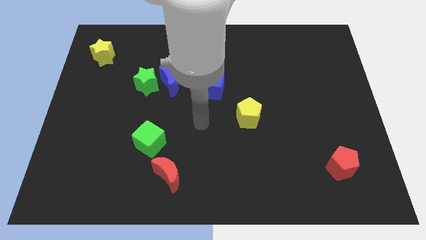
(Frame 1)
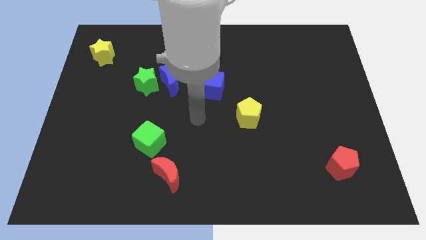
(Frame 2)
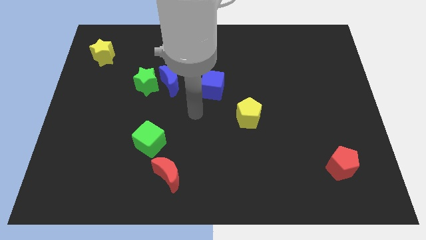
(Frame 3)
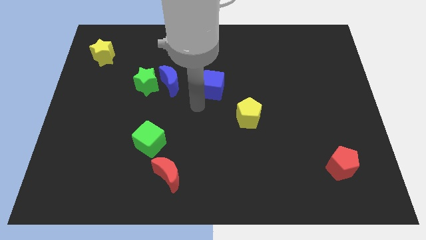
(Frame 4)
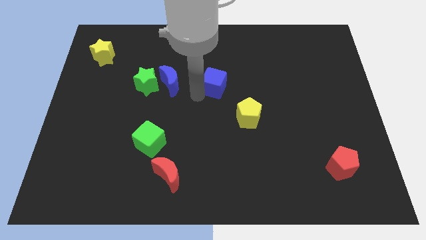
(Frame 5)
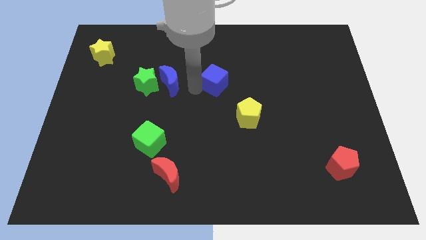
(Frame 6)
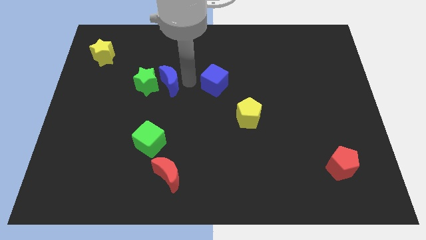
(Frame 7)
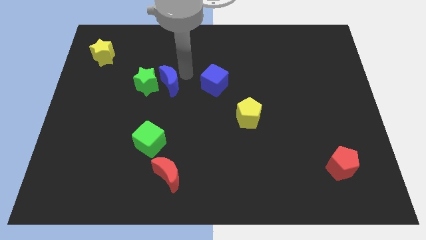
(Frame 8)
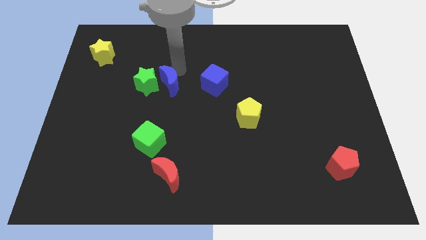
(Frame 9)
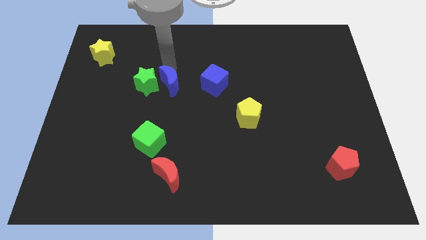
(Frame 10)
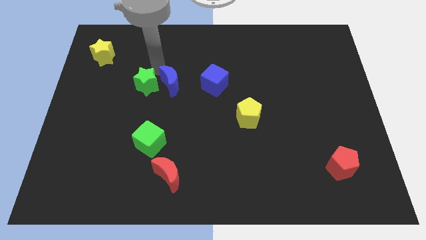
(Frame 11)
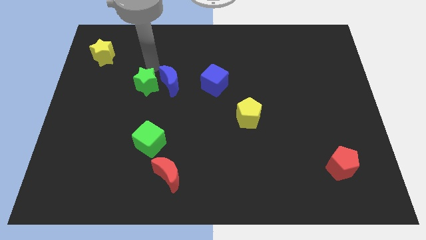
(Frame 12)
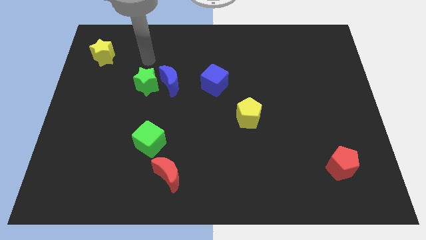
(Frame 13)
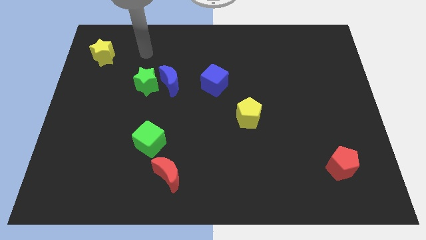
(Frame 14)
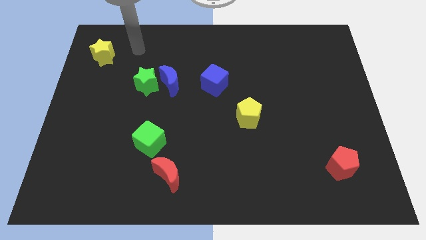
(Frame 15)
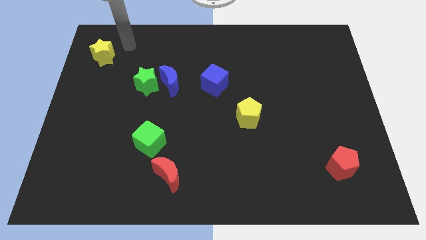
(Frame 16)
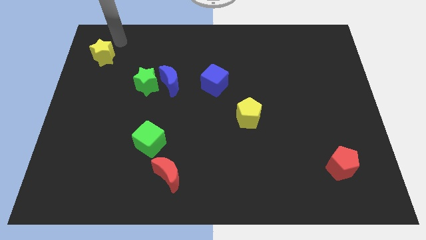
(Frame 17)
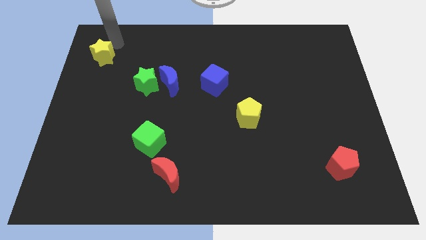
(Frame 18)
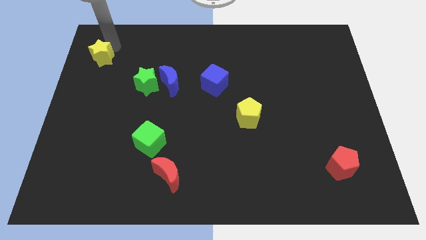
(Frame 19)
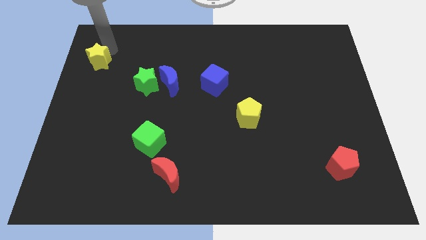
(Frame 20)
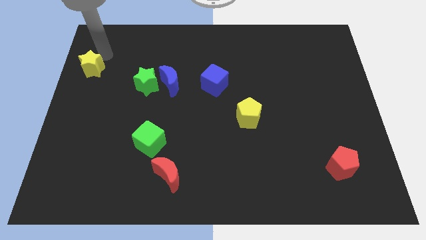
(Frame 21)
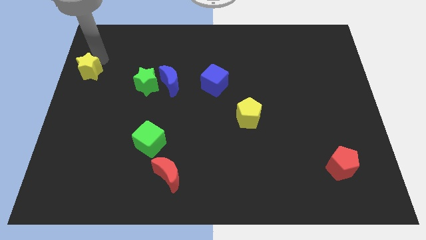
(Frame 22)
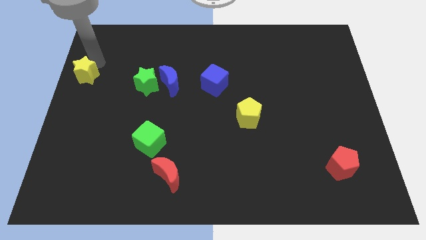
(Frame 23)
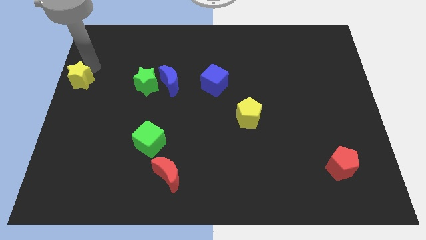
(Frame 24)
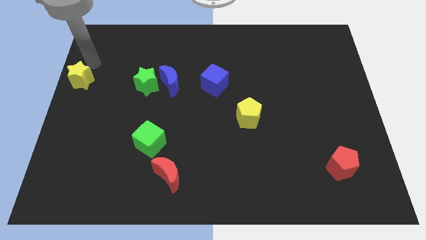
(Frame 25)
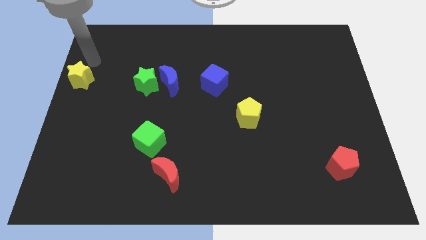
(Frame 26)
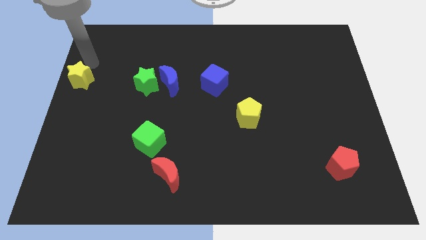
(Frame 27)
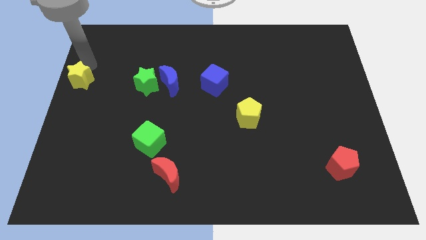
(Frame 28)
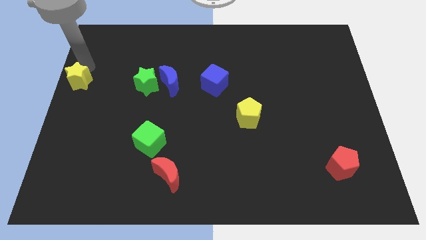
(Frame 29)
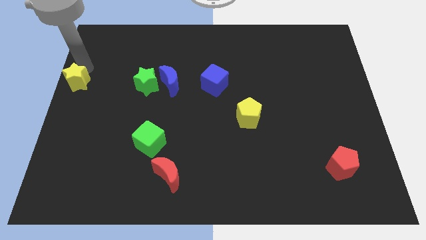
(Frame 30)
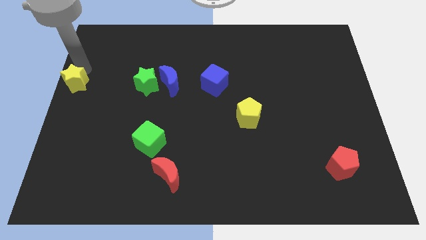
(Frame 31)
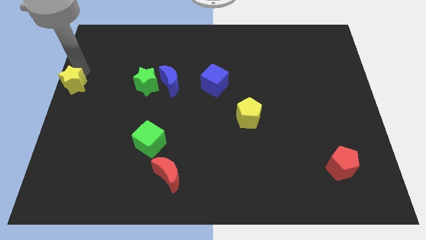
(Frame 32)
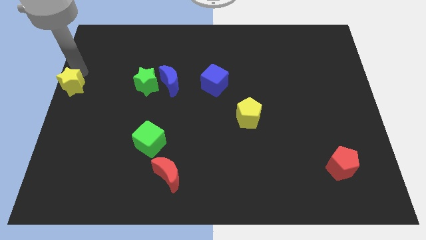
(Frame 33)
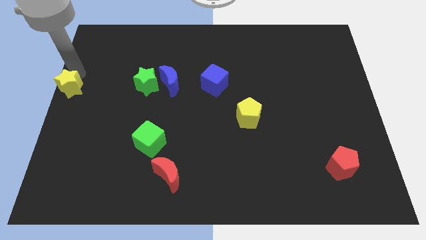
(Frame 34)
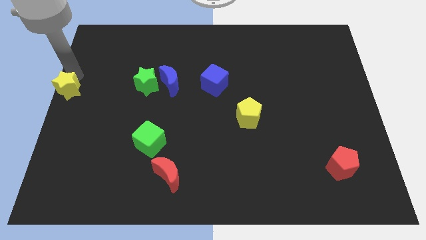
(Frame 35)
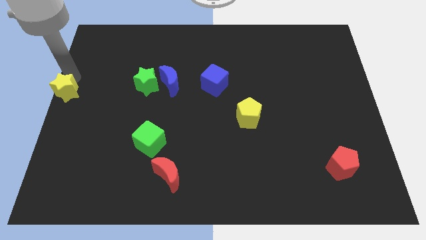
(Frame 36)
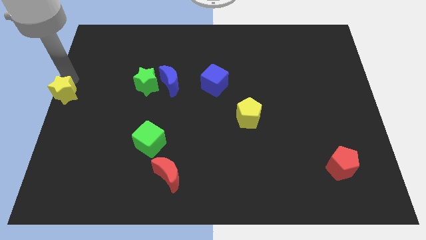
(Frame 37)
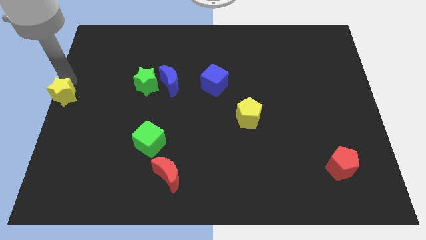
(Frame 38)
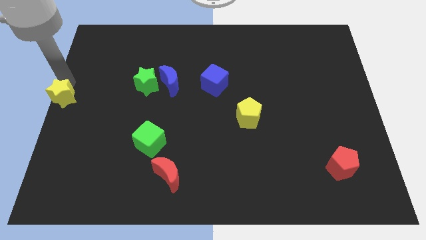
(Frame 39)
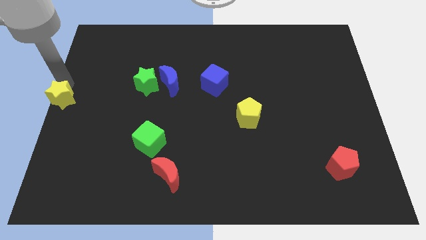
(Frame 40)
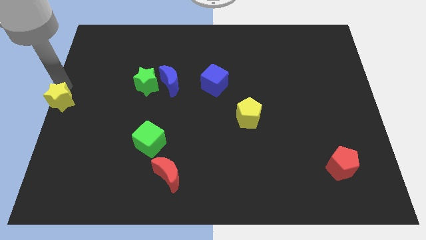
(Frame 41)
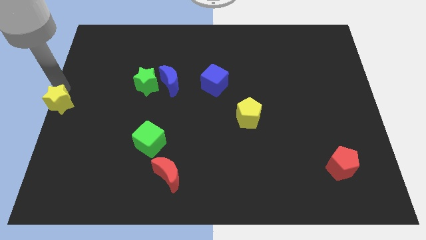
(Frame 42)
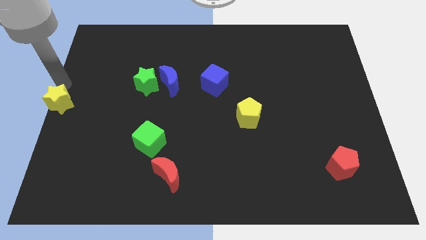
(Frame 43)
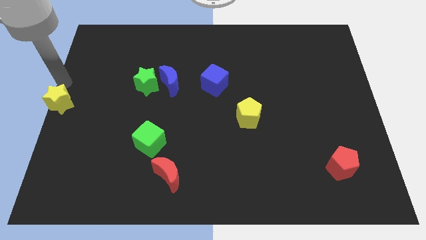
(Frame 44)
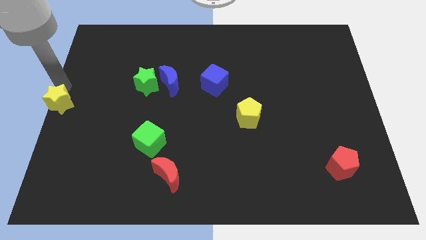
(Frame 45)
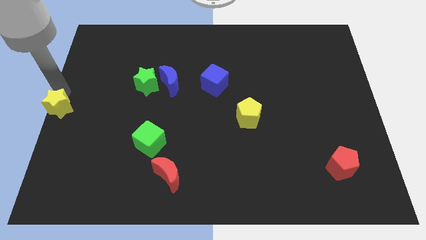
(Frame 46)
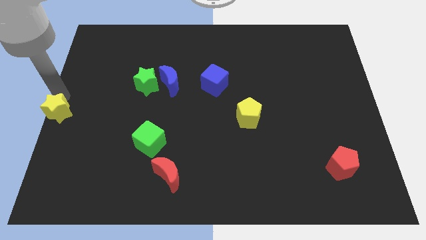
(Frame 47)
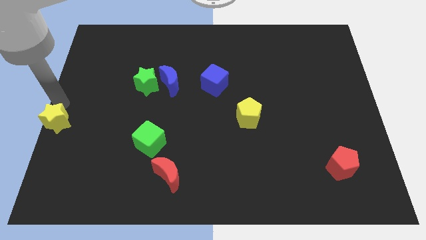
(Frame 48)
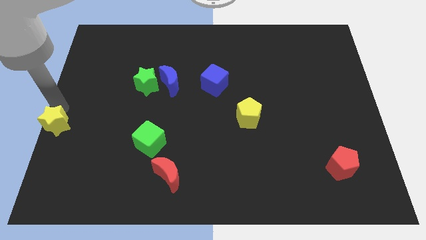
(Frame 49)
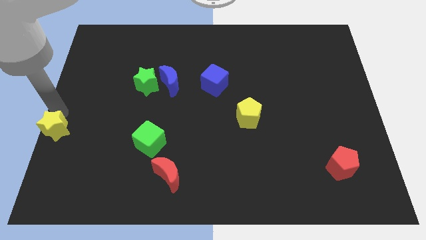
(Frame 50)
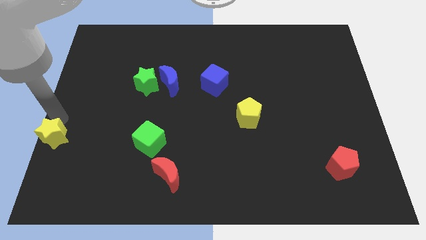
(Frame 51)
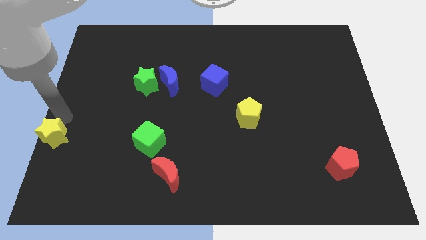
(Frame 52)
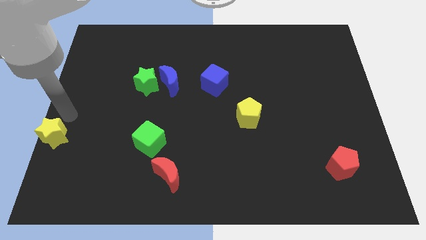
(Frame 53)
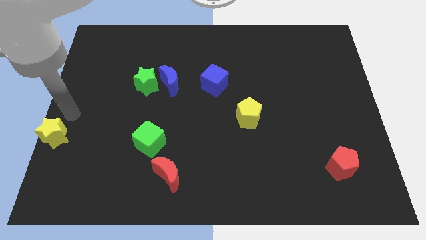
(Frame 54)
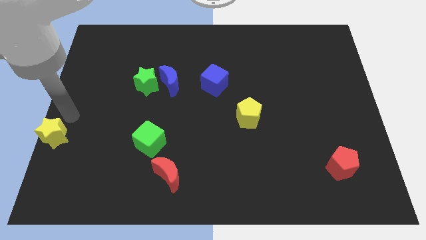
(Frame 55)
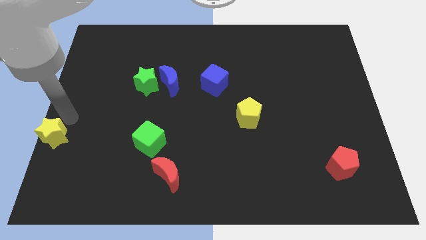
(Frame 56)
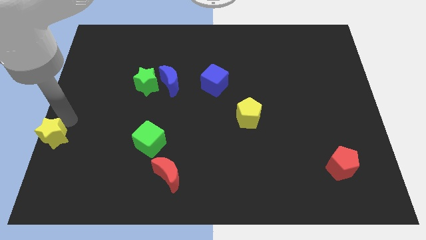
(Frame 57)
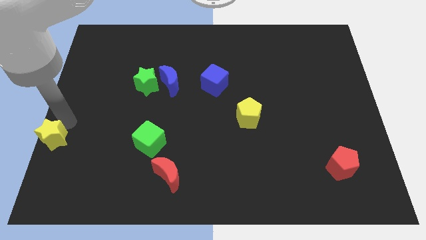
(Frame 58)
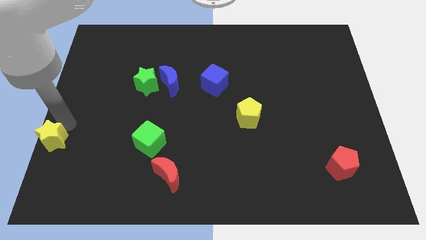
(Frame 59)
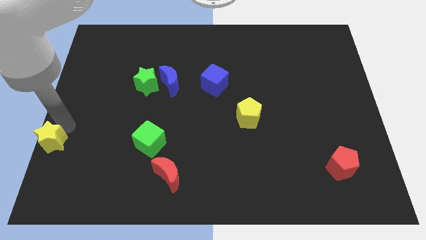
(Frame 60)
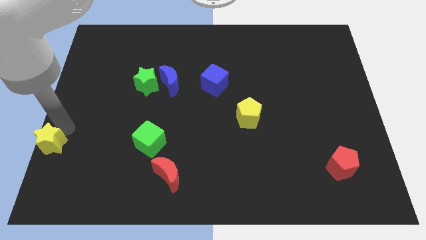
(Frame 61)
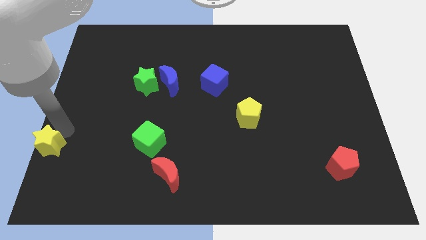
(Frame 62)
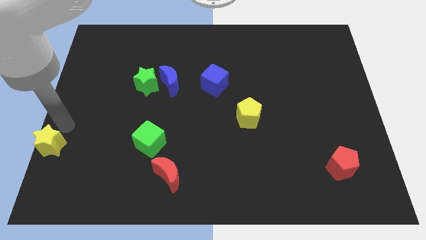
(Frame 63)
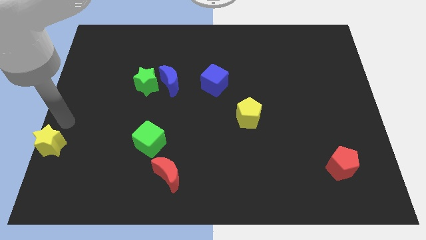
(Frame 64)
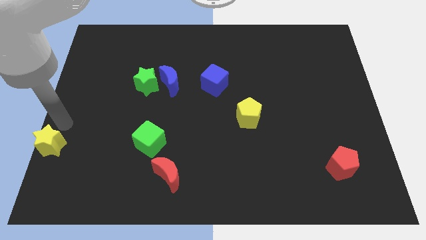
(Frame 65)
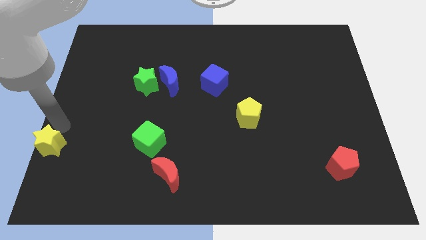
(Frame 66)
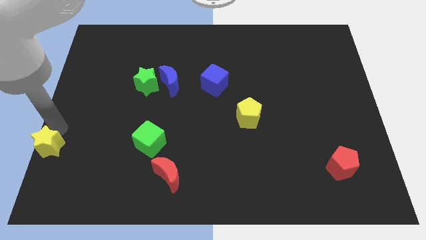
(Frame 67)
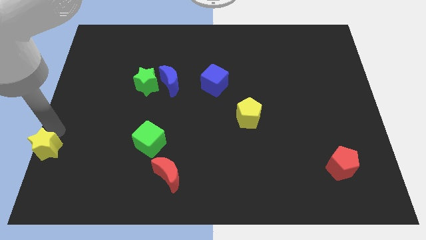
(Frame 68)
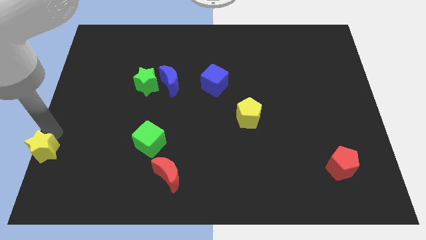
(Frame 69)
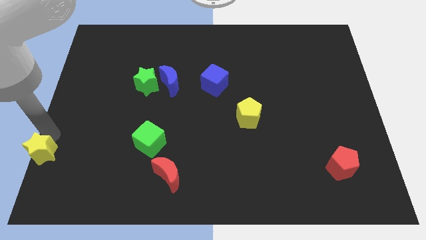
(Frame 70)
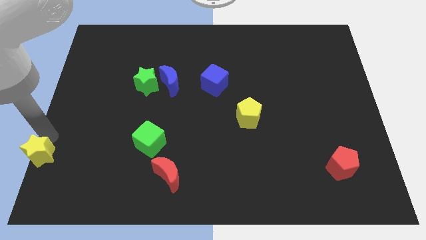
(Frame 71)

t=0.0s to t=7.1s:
move the yellow star to the lower left corner
